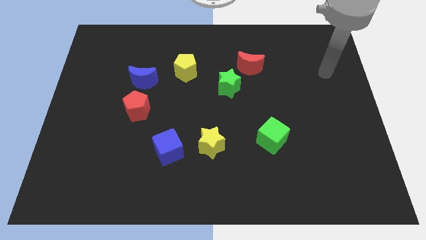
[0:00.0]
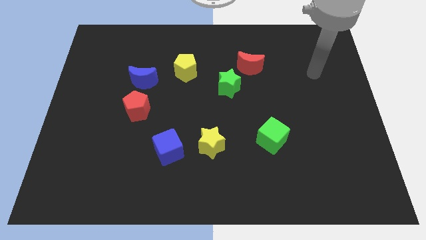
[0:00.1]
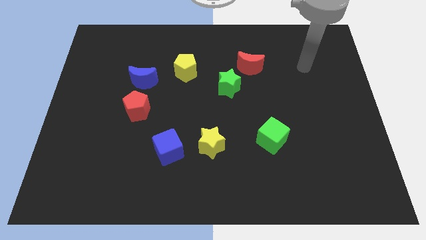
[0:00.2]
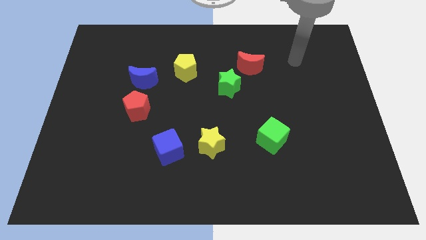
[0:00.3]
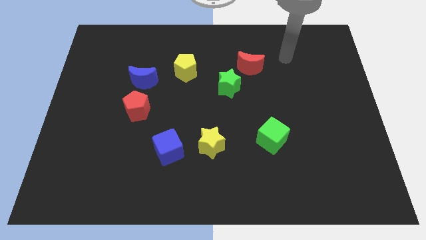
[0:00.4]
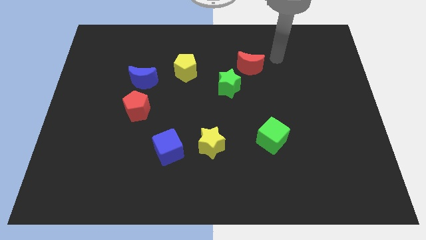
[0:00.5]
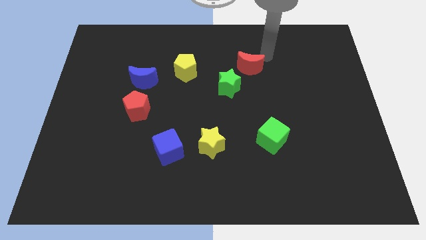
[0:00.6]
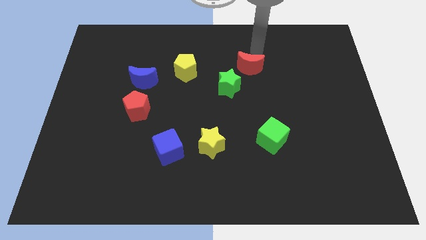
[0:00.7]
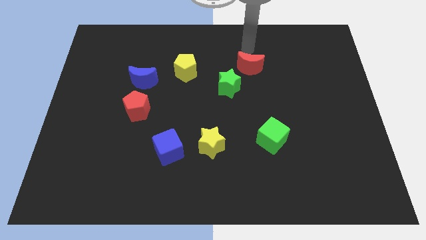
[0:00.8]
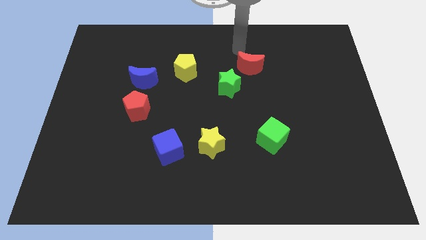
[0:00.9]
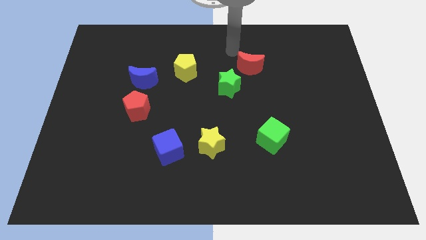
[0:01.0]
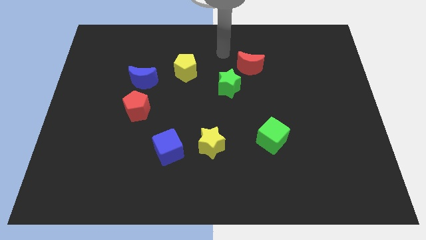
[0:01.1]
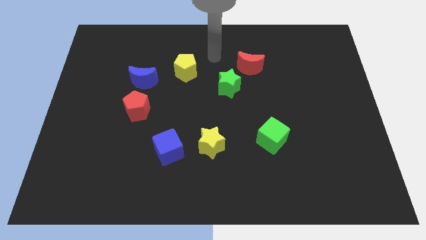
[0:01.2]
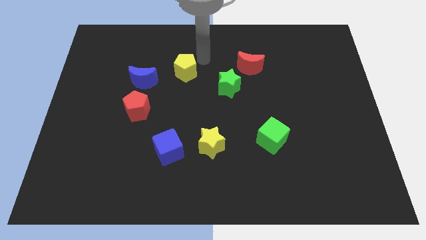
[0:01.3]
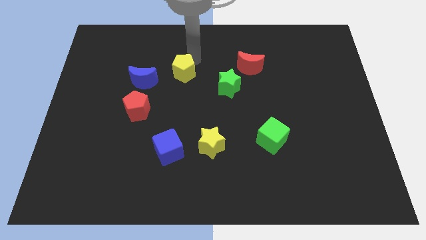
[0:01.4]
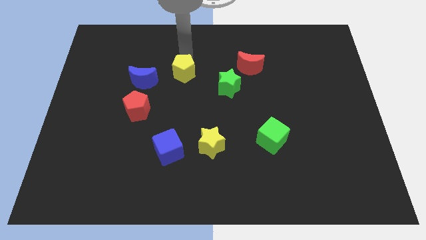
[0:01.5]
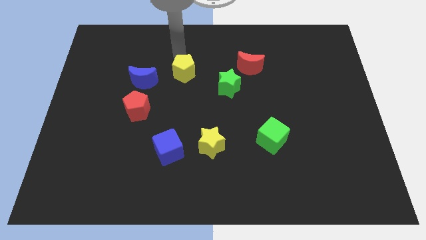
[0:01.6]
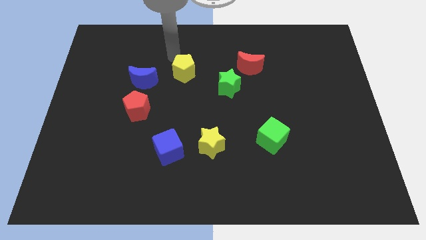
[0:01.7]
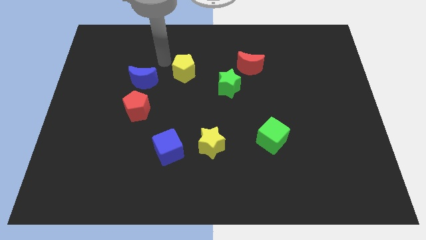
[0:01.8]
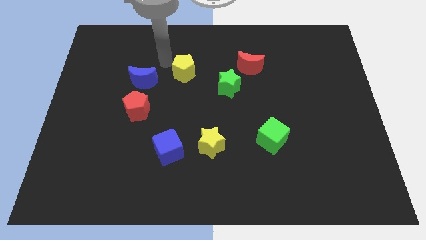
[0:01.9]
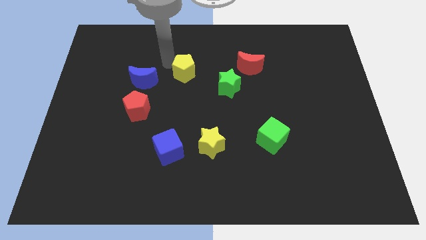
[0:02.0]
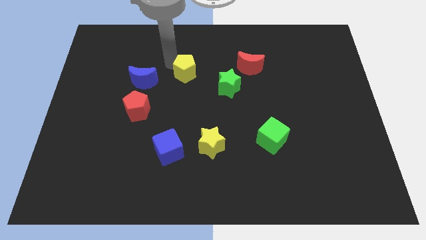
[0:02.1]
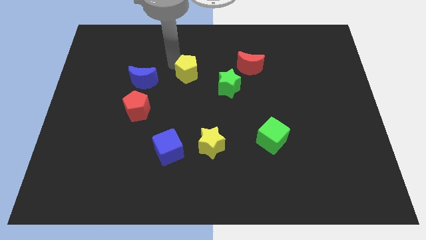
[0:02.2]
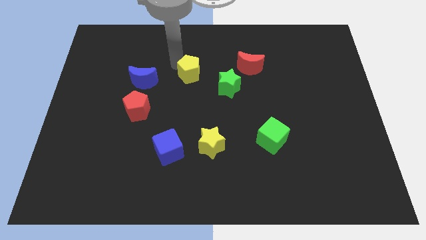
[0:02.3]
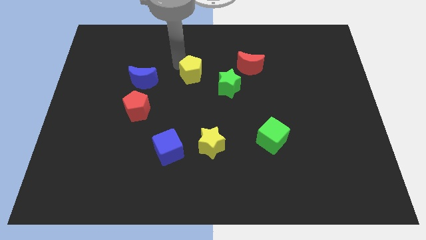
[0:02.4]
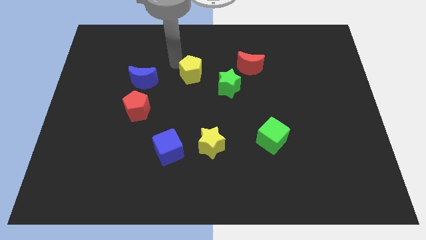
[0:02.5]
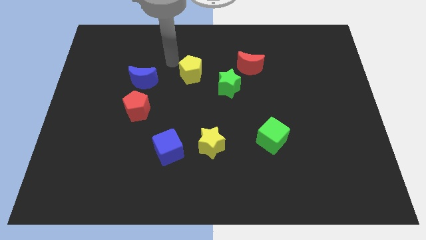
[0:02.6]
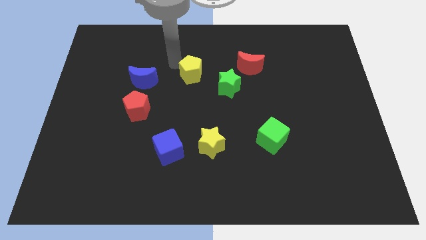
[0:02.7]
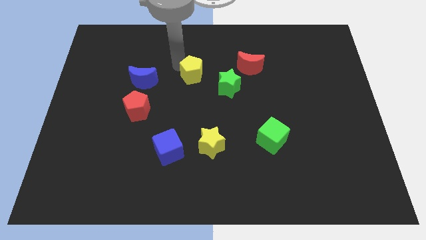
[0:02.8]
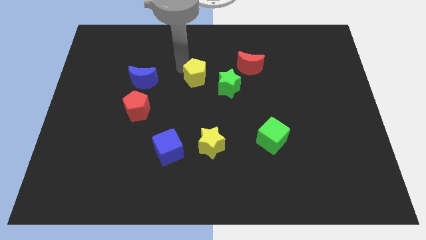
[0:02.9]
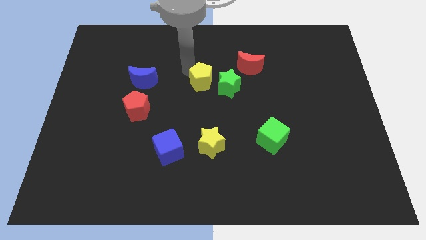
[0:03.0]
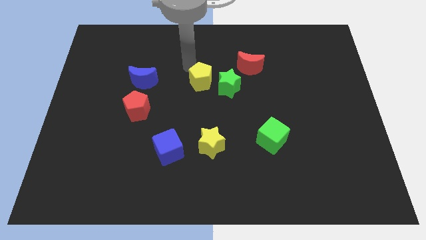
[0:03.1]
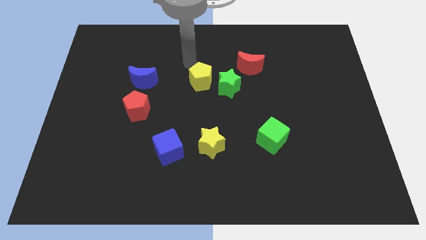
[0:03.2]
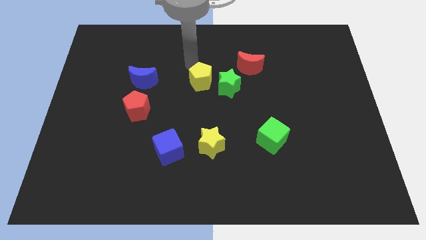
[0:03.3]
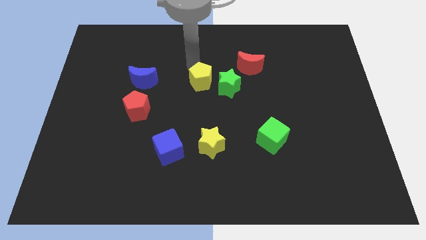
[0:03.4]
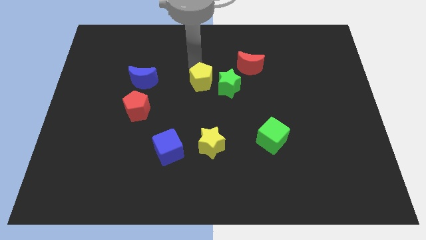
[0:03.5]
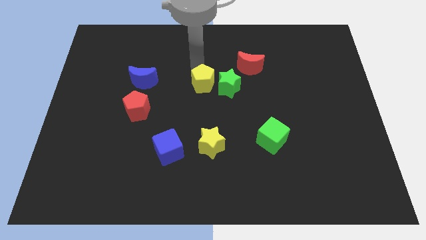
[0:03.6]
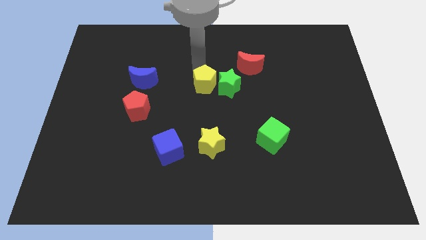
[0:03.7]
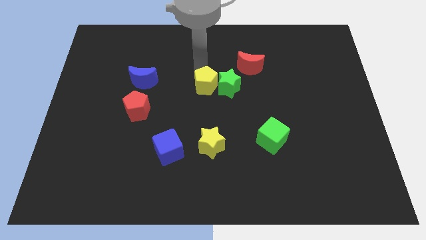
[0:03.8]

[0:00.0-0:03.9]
push the yellow pentagon down and right diagonally a bit

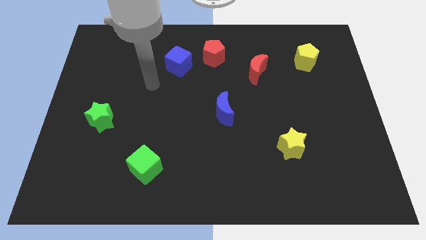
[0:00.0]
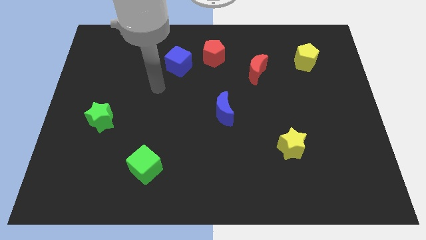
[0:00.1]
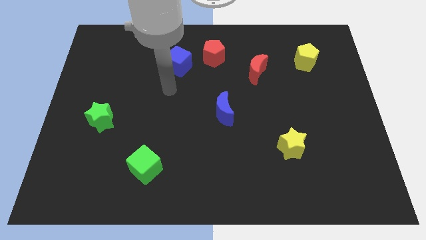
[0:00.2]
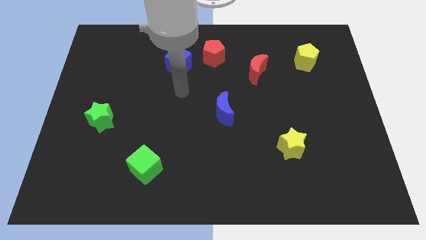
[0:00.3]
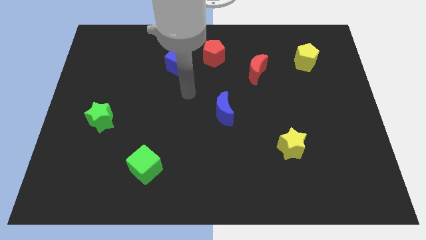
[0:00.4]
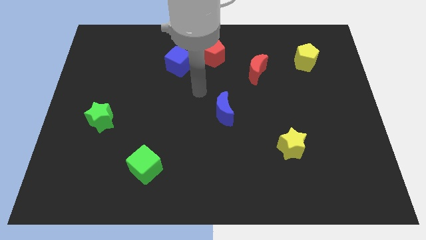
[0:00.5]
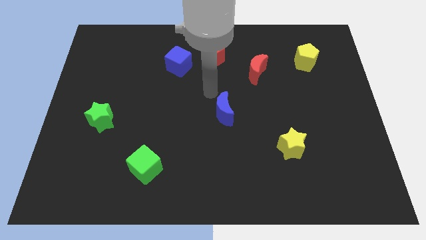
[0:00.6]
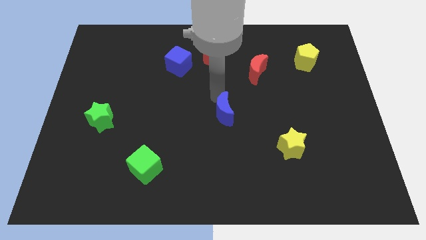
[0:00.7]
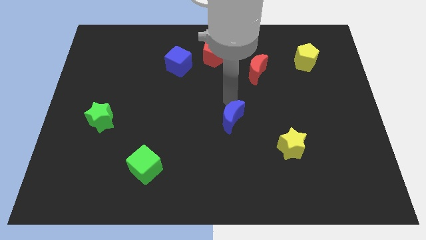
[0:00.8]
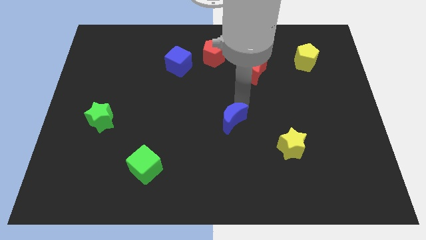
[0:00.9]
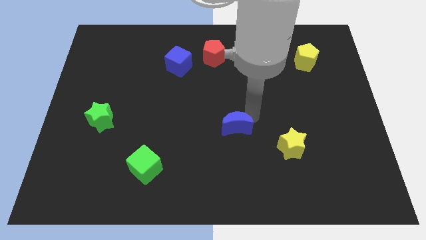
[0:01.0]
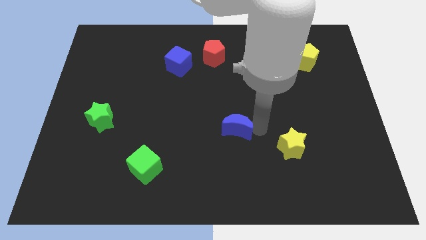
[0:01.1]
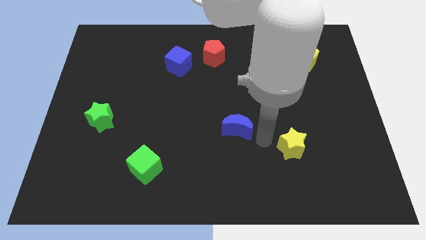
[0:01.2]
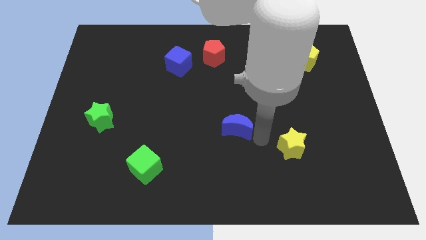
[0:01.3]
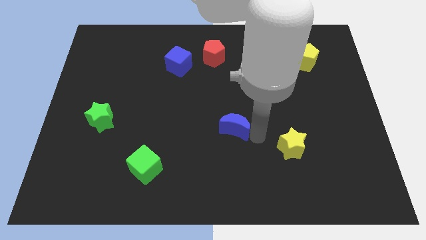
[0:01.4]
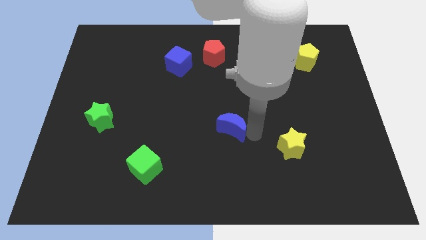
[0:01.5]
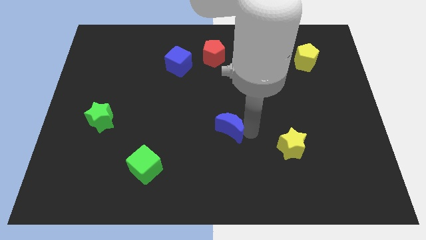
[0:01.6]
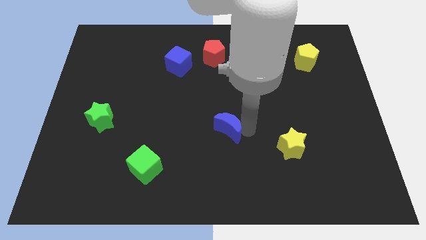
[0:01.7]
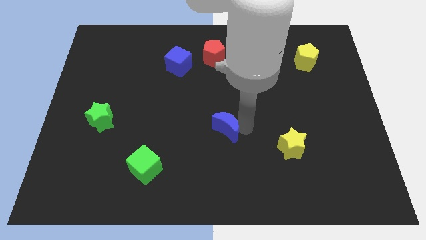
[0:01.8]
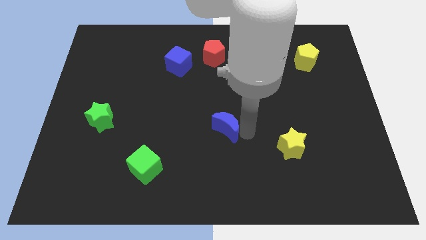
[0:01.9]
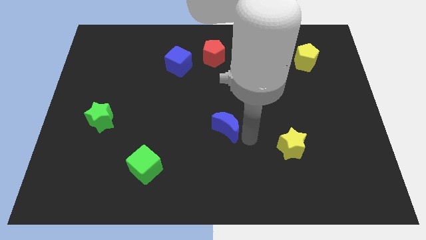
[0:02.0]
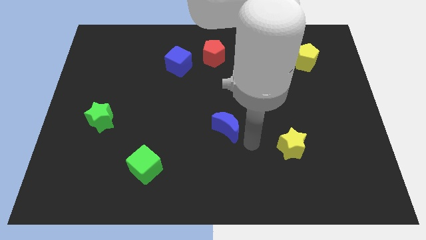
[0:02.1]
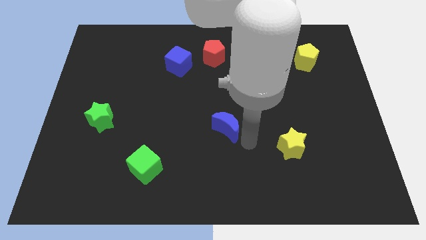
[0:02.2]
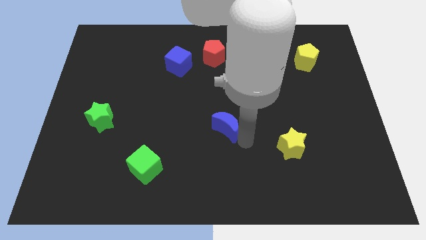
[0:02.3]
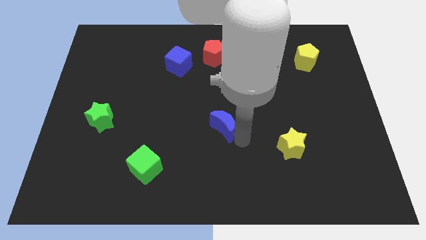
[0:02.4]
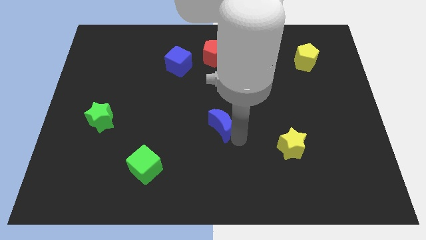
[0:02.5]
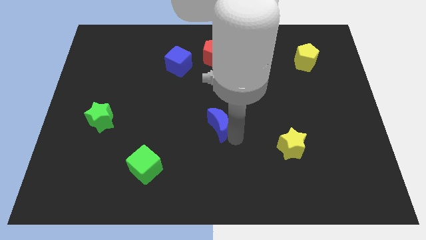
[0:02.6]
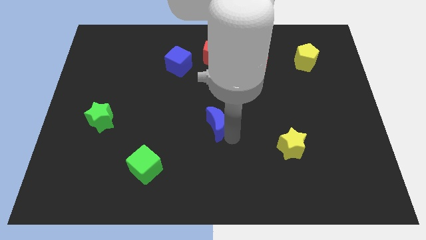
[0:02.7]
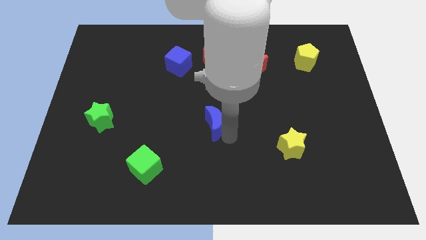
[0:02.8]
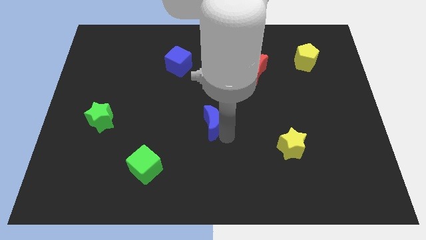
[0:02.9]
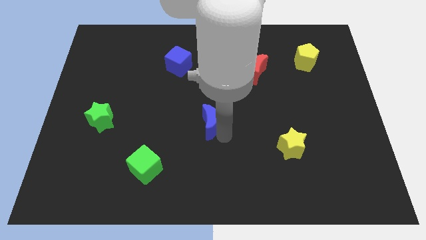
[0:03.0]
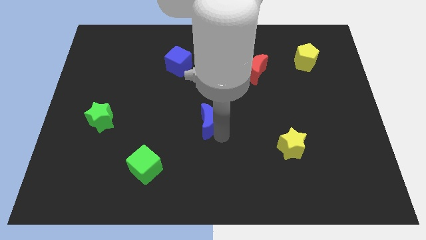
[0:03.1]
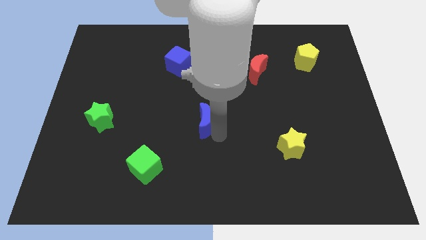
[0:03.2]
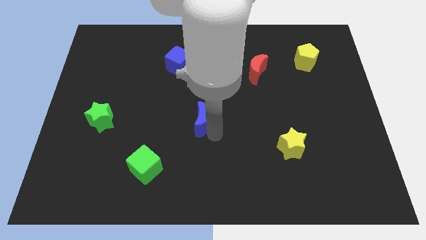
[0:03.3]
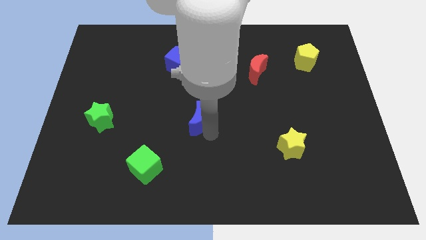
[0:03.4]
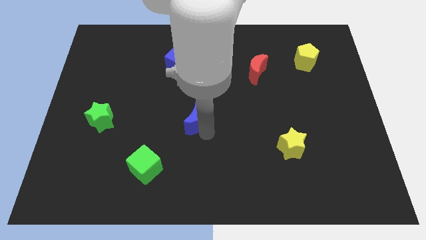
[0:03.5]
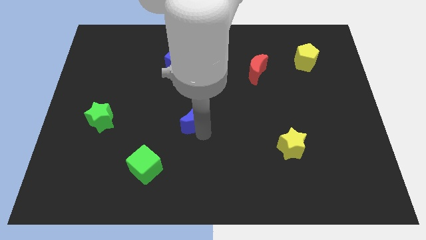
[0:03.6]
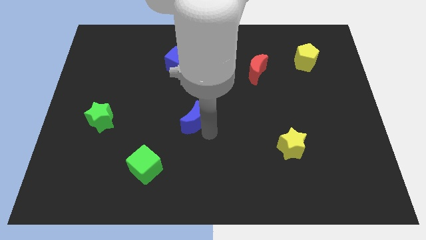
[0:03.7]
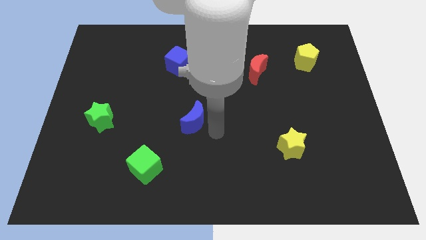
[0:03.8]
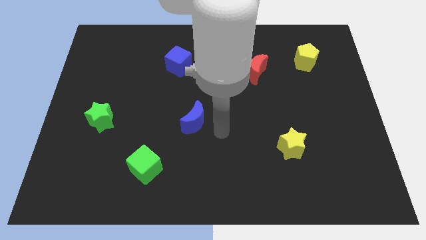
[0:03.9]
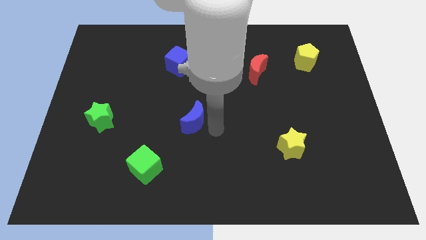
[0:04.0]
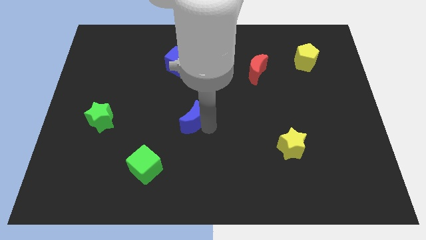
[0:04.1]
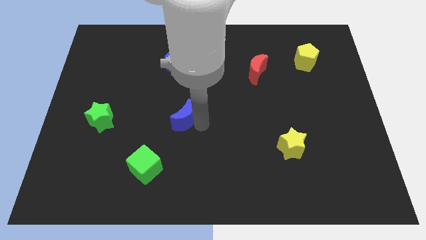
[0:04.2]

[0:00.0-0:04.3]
move the blue moon left slightly
